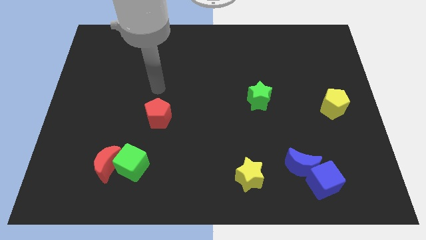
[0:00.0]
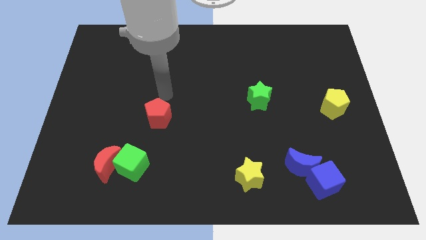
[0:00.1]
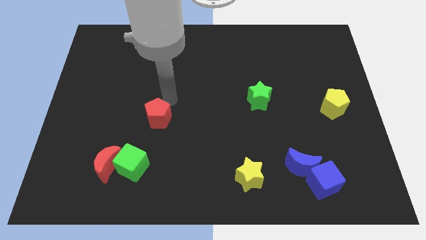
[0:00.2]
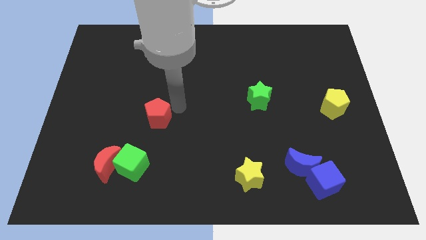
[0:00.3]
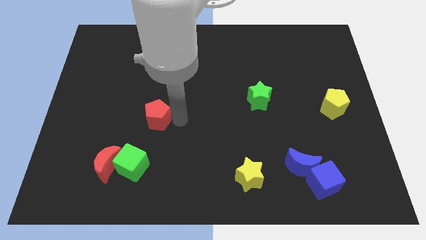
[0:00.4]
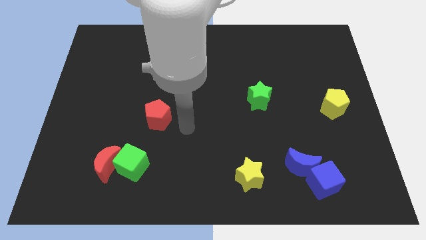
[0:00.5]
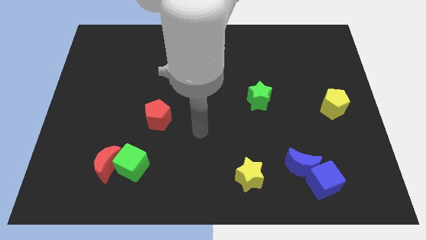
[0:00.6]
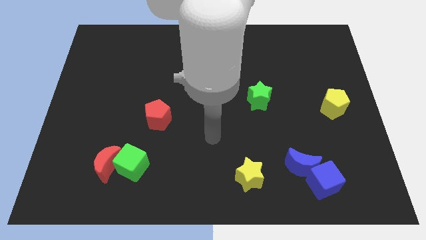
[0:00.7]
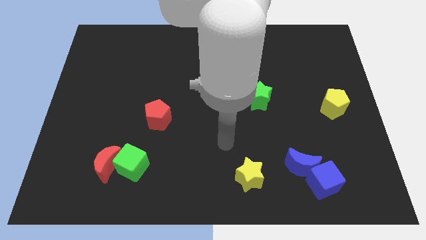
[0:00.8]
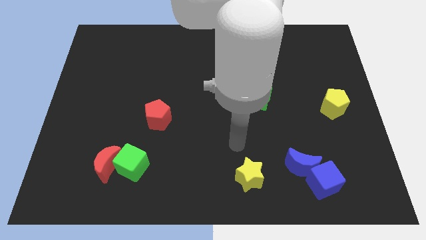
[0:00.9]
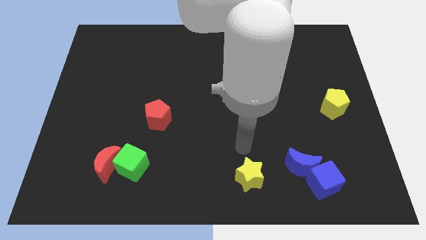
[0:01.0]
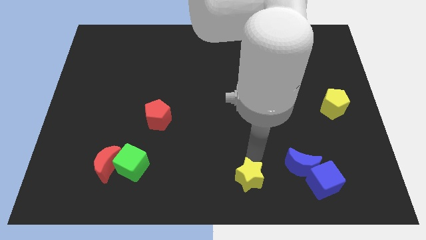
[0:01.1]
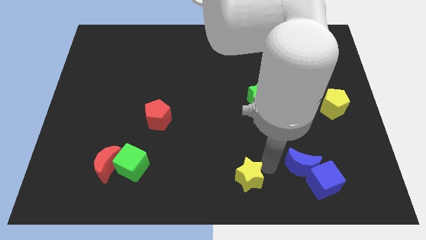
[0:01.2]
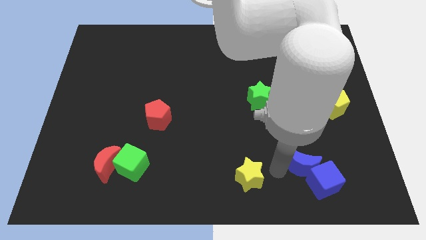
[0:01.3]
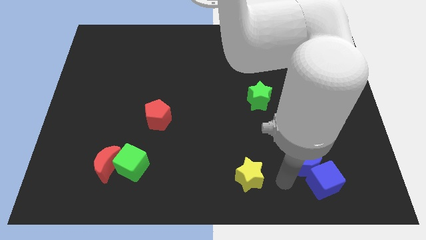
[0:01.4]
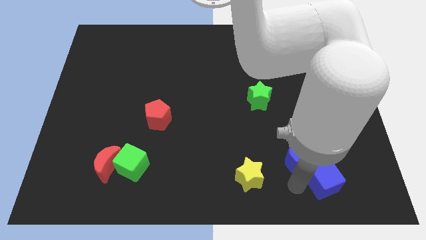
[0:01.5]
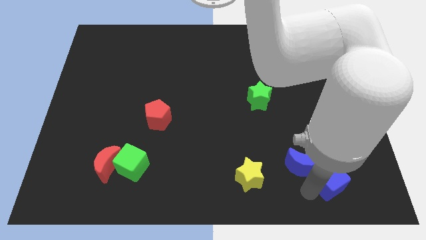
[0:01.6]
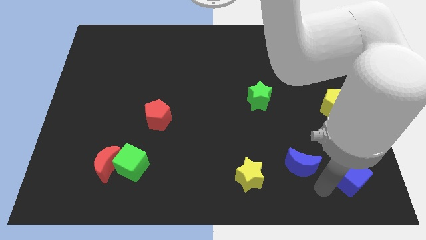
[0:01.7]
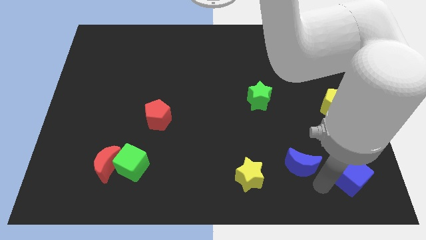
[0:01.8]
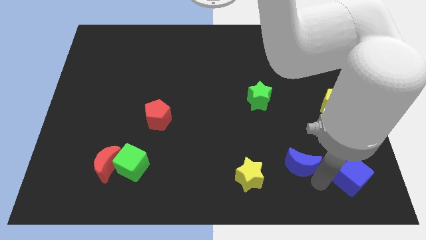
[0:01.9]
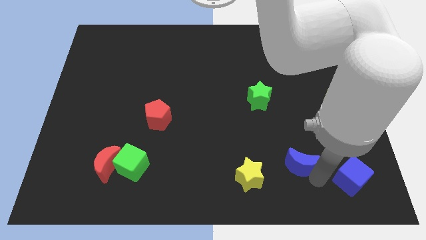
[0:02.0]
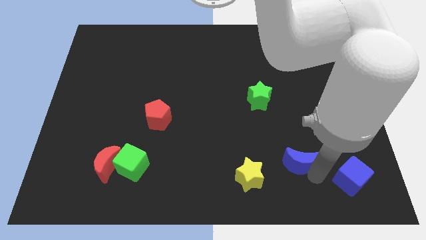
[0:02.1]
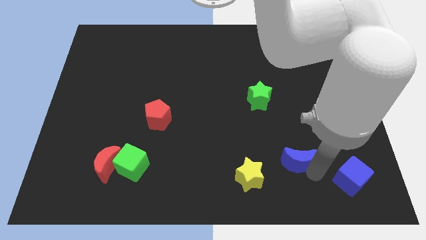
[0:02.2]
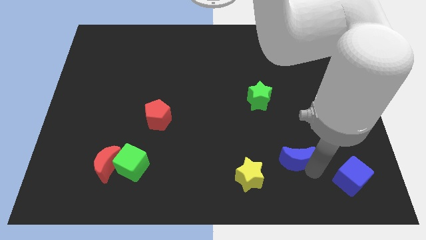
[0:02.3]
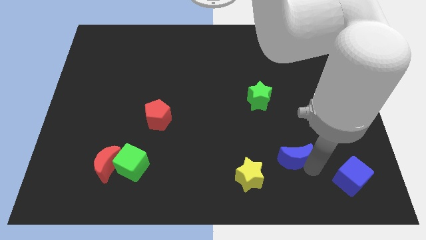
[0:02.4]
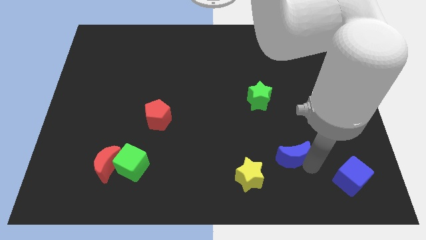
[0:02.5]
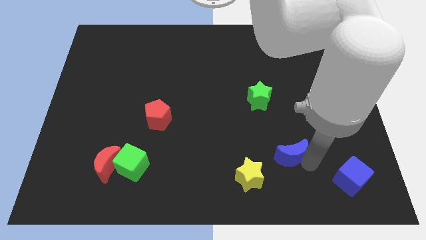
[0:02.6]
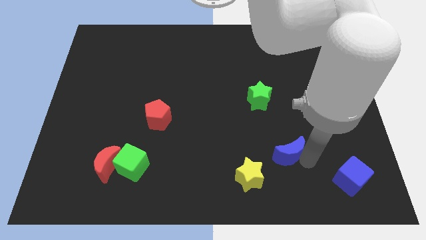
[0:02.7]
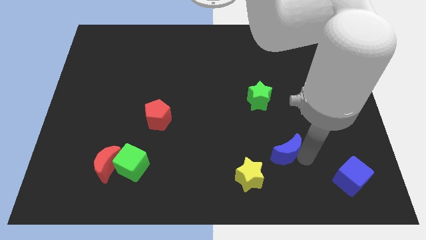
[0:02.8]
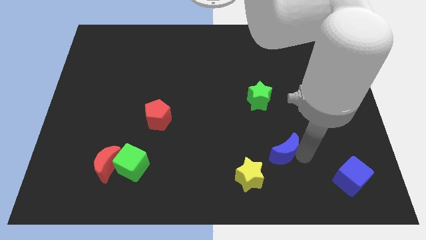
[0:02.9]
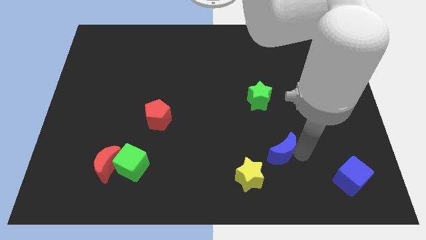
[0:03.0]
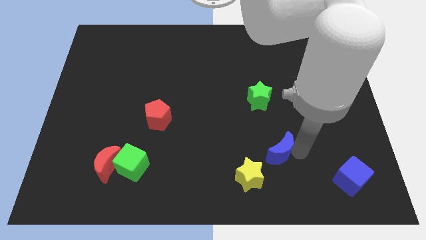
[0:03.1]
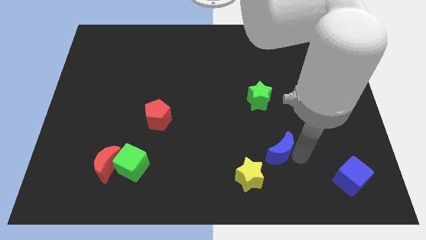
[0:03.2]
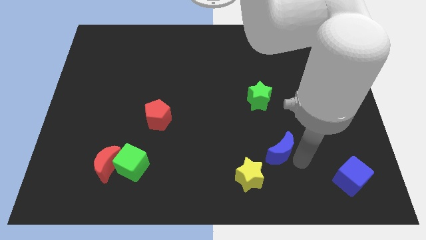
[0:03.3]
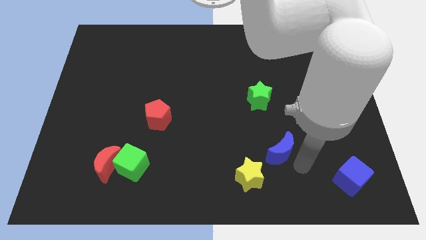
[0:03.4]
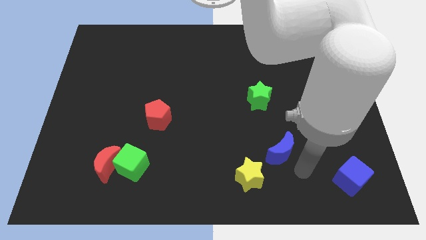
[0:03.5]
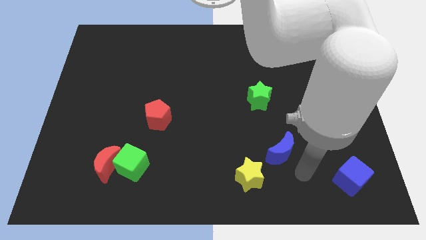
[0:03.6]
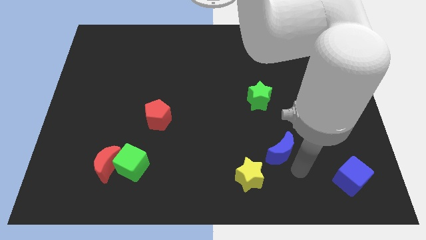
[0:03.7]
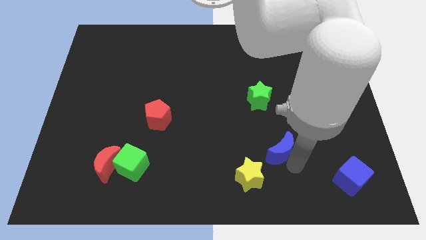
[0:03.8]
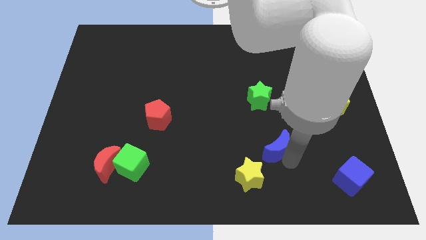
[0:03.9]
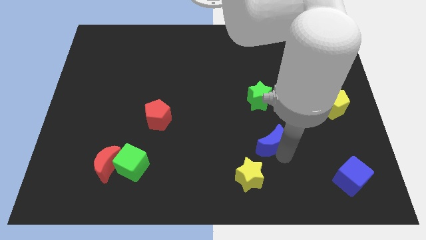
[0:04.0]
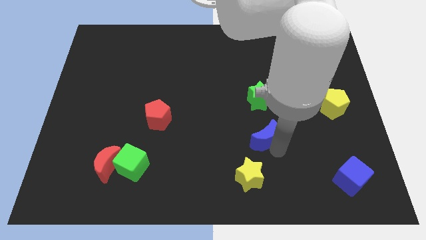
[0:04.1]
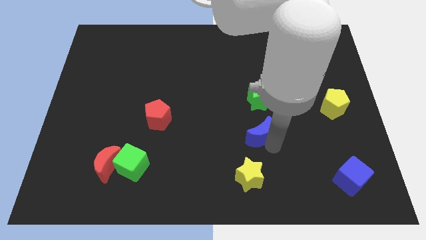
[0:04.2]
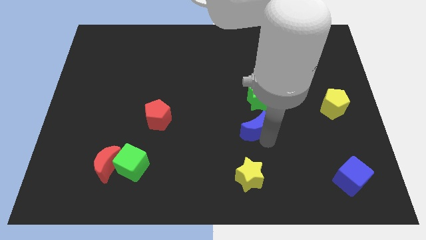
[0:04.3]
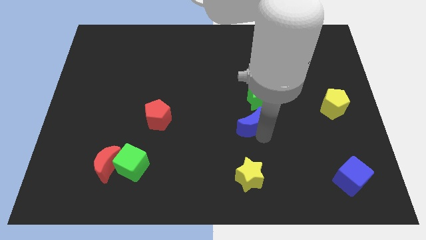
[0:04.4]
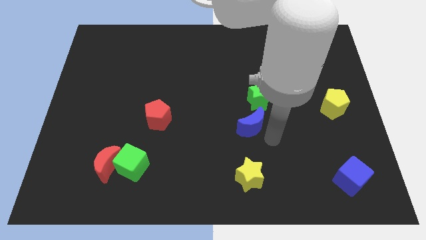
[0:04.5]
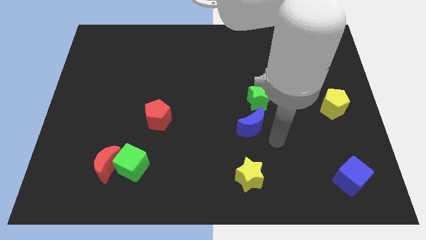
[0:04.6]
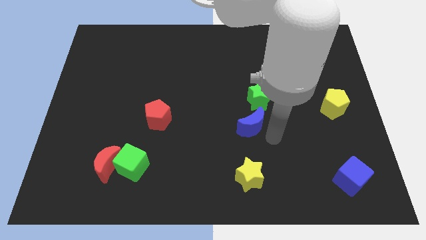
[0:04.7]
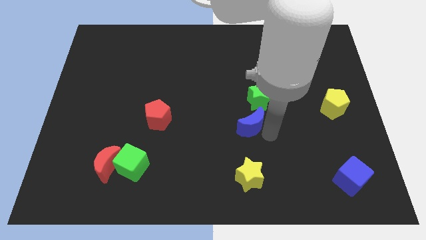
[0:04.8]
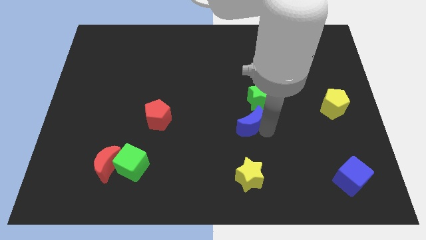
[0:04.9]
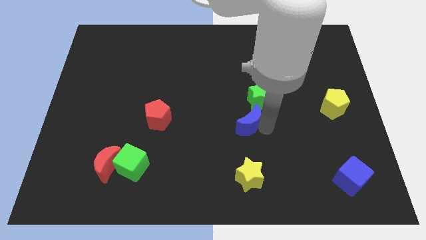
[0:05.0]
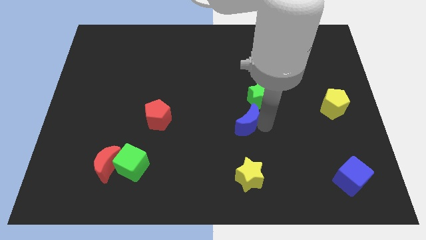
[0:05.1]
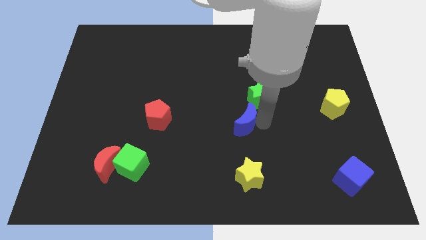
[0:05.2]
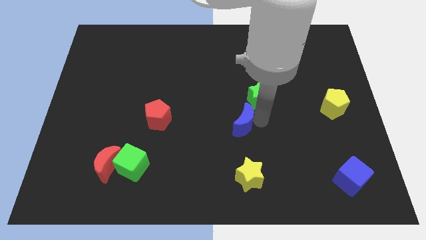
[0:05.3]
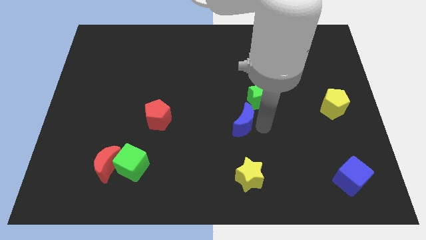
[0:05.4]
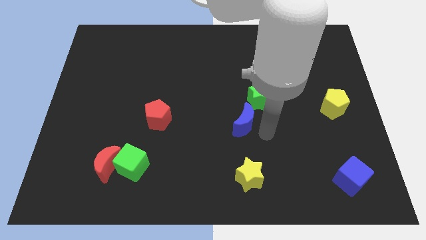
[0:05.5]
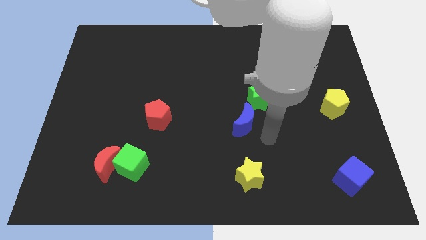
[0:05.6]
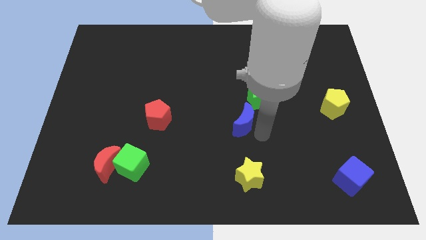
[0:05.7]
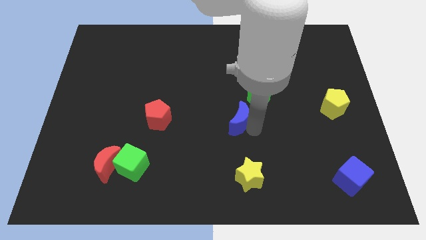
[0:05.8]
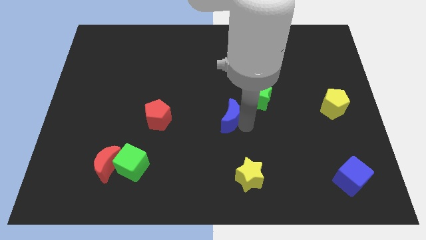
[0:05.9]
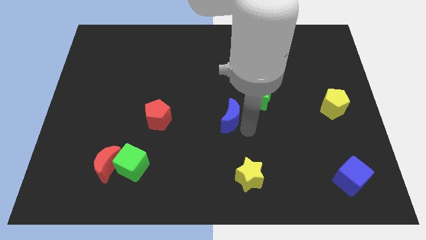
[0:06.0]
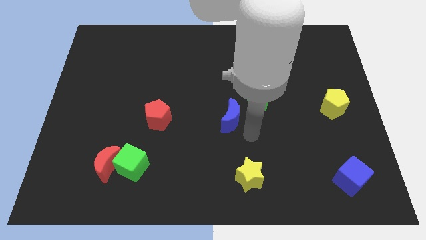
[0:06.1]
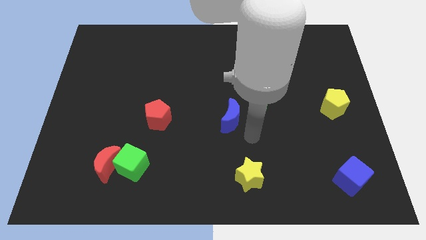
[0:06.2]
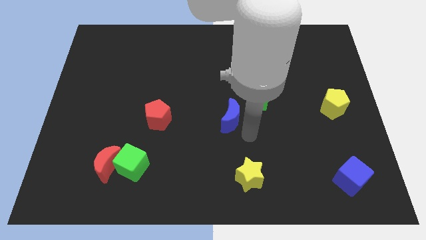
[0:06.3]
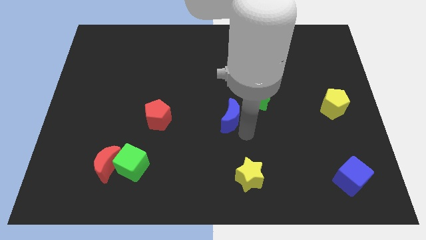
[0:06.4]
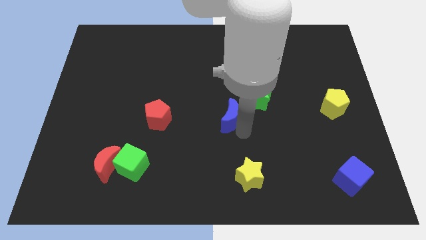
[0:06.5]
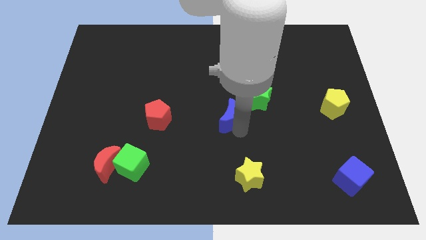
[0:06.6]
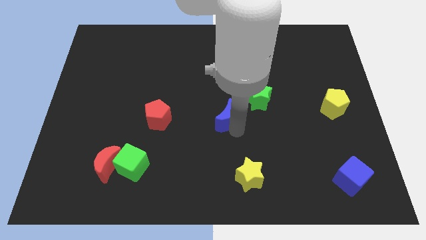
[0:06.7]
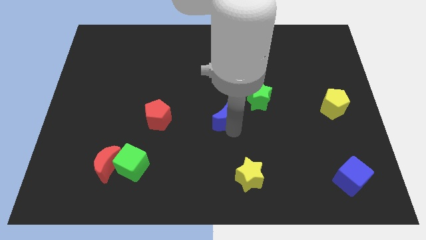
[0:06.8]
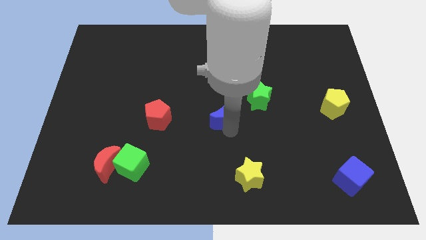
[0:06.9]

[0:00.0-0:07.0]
move the blue moon diagonally upwards and left

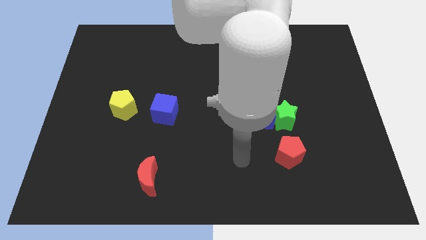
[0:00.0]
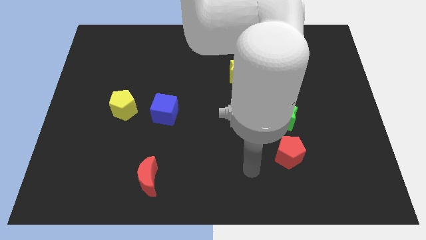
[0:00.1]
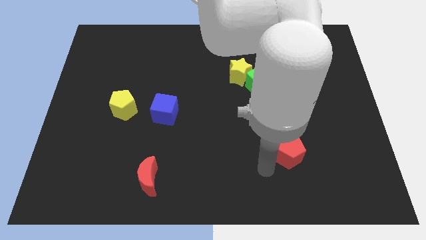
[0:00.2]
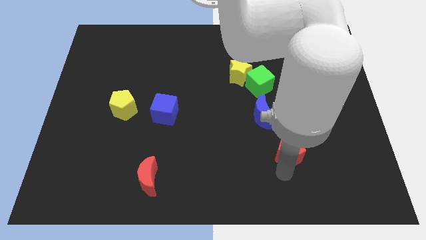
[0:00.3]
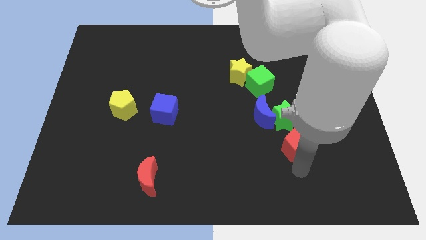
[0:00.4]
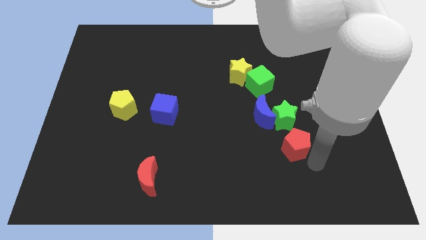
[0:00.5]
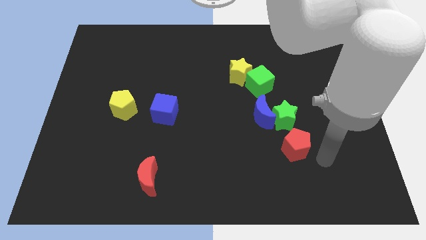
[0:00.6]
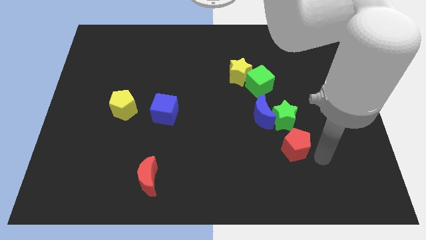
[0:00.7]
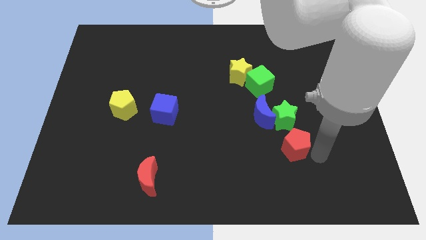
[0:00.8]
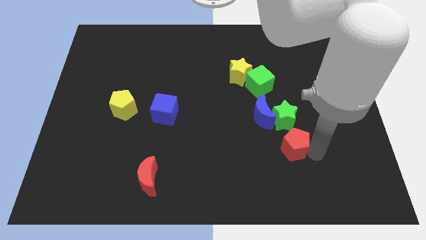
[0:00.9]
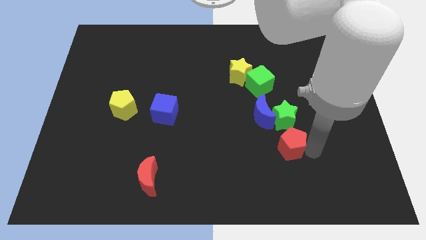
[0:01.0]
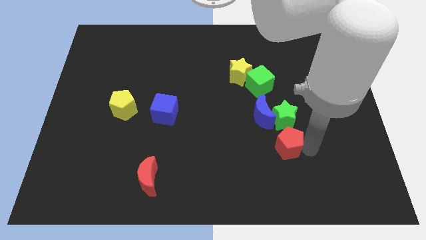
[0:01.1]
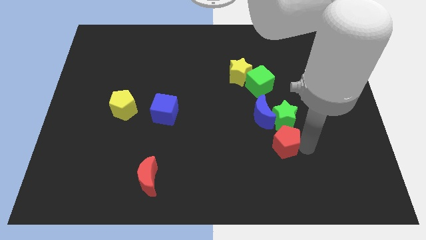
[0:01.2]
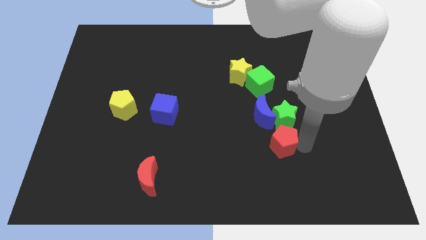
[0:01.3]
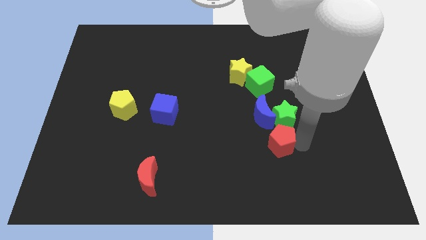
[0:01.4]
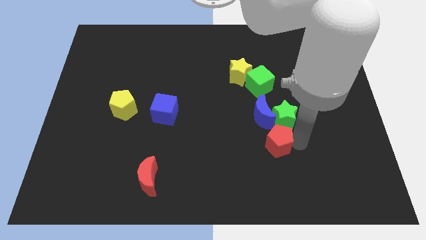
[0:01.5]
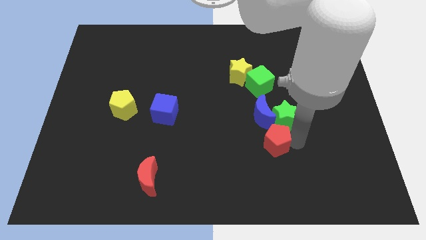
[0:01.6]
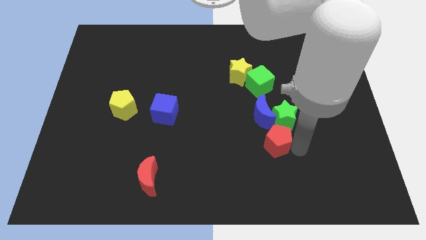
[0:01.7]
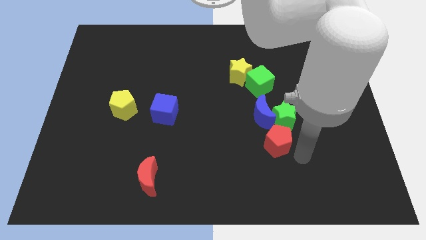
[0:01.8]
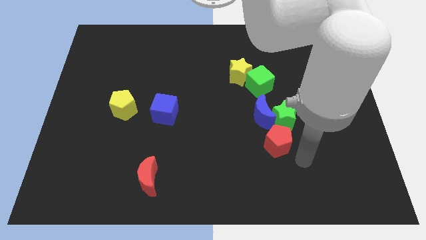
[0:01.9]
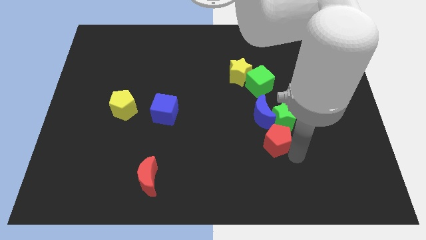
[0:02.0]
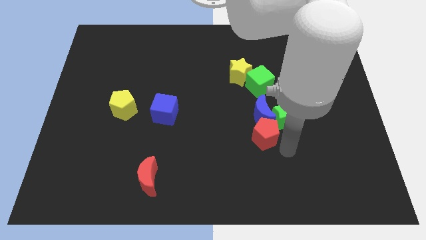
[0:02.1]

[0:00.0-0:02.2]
move the red pentagon somewhat upwards and to the left
